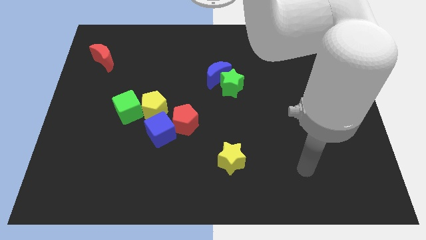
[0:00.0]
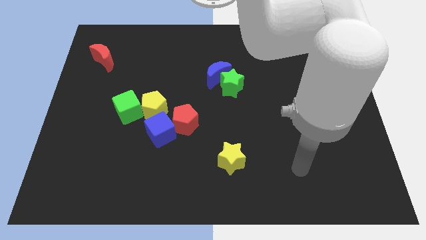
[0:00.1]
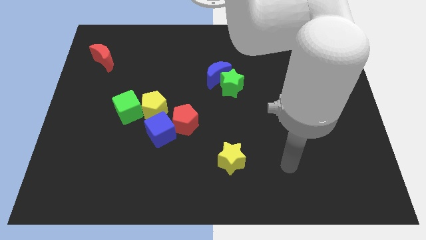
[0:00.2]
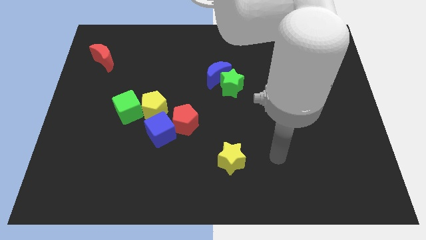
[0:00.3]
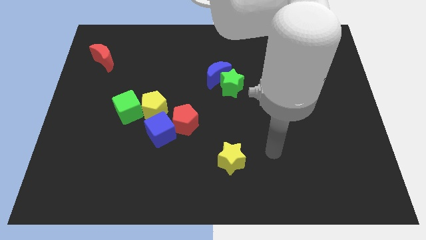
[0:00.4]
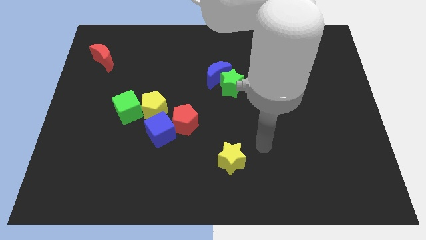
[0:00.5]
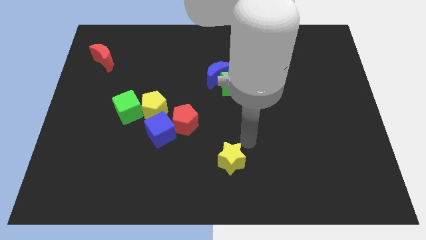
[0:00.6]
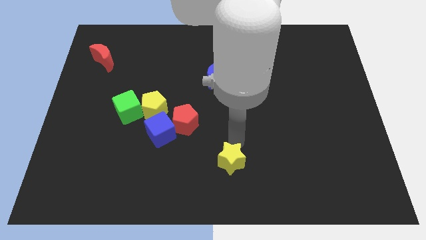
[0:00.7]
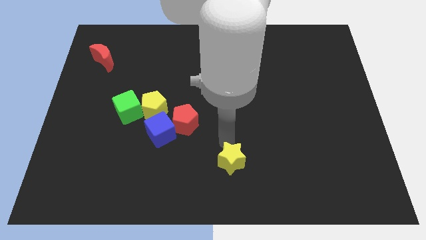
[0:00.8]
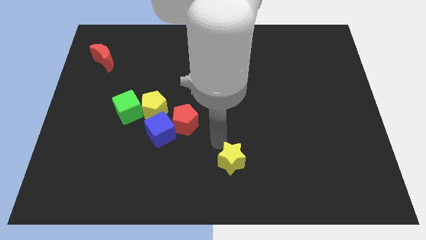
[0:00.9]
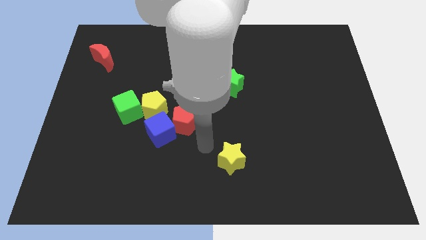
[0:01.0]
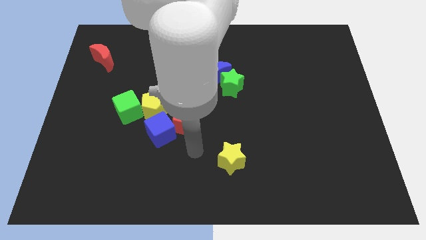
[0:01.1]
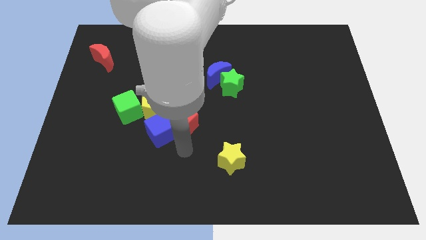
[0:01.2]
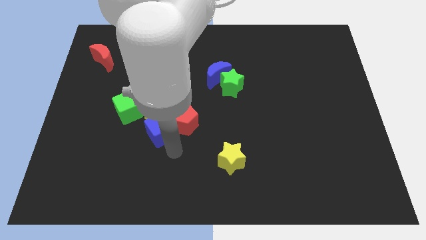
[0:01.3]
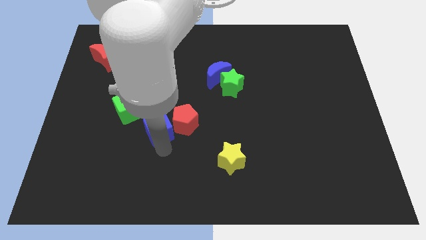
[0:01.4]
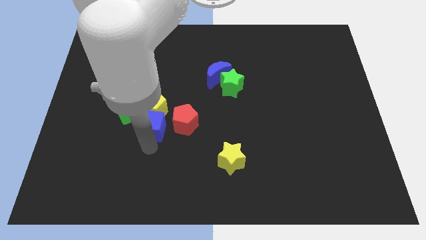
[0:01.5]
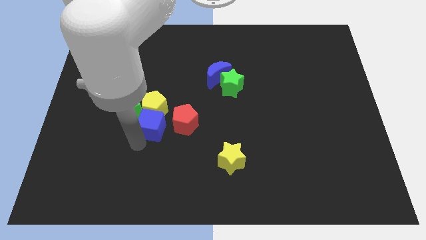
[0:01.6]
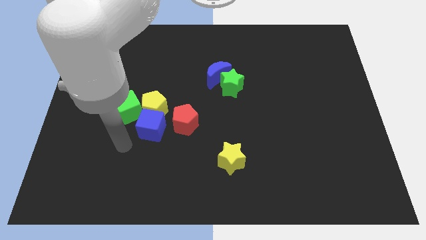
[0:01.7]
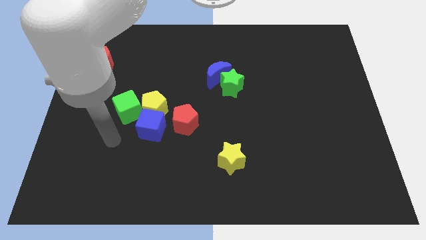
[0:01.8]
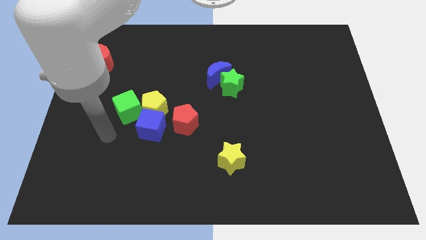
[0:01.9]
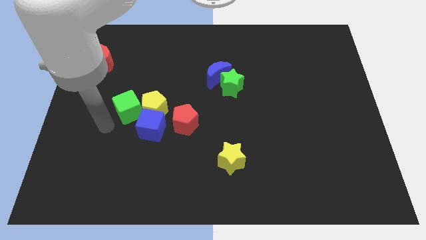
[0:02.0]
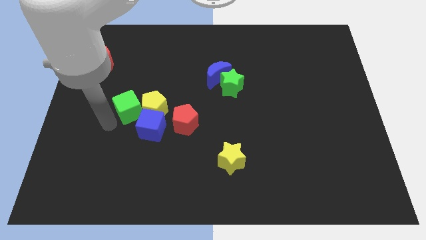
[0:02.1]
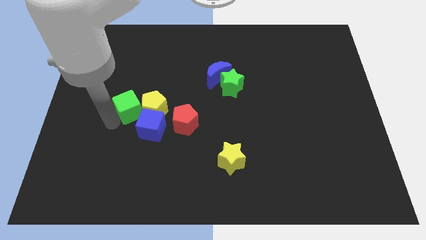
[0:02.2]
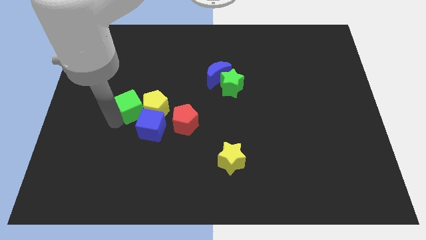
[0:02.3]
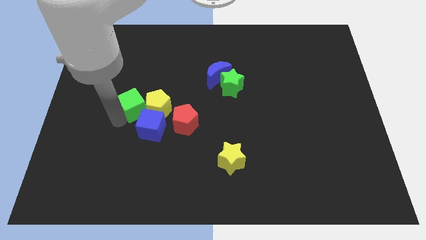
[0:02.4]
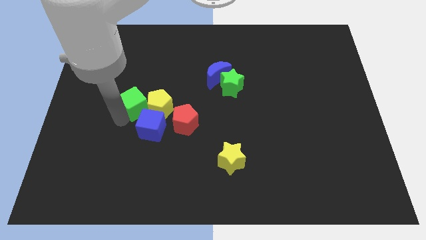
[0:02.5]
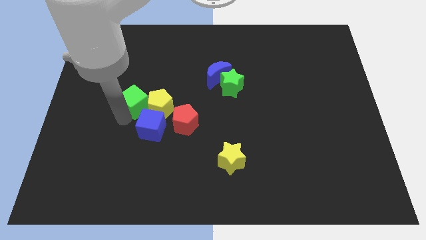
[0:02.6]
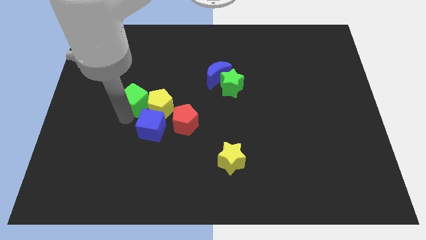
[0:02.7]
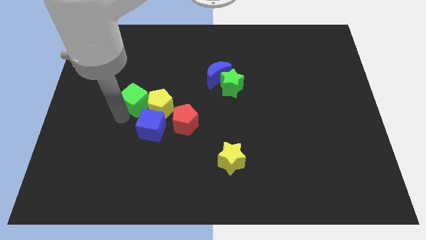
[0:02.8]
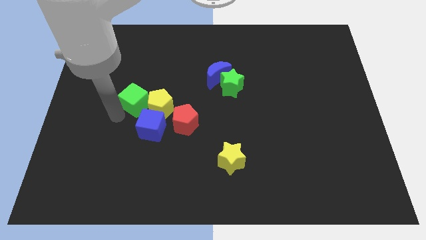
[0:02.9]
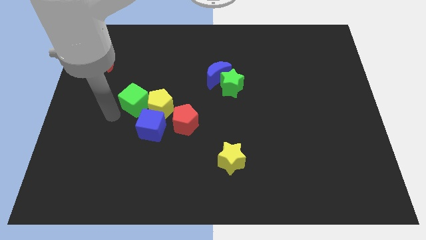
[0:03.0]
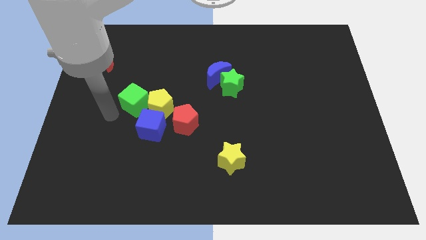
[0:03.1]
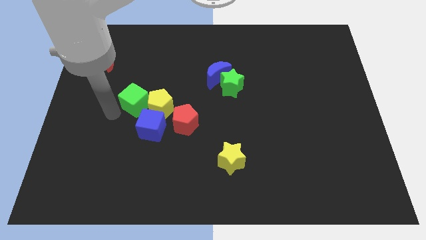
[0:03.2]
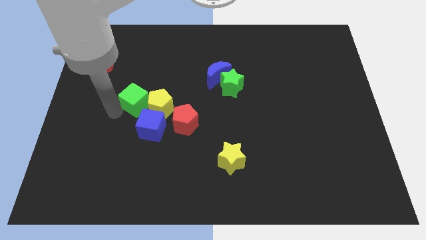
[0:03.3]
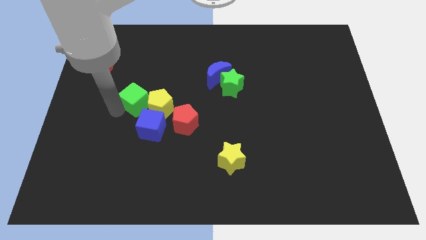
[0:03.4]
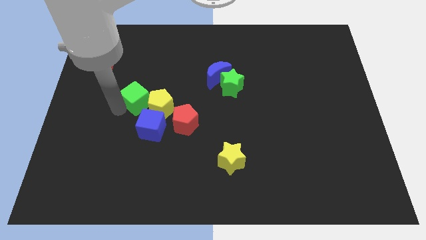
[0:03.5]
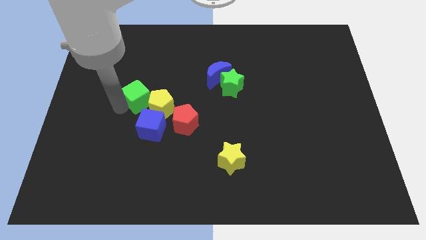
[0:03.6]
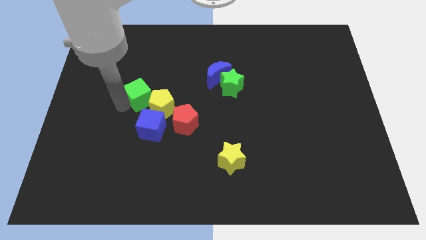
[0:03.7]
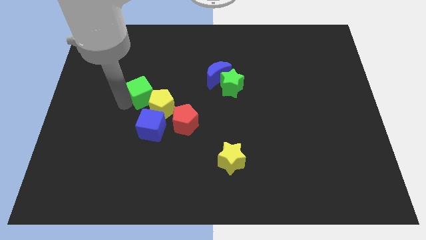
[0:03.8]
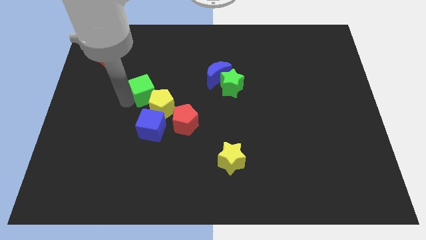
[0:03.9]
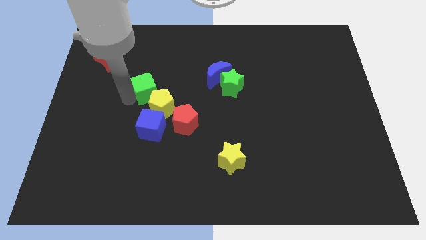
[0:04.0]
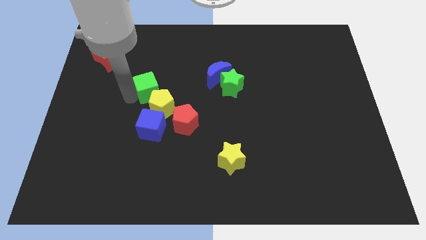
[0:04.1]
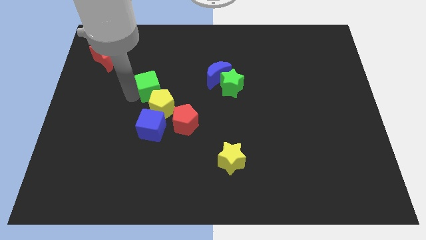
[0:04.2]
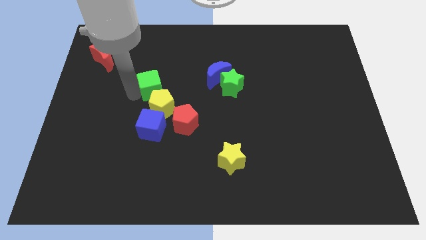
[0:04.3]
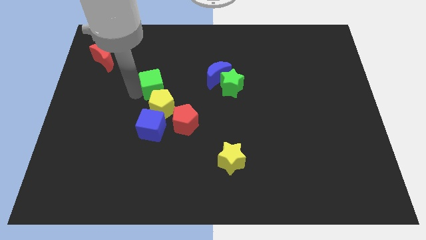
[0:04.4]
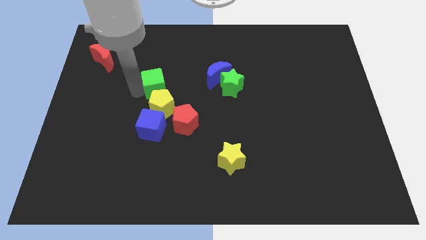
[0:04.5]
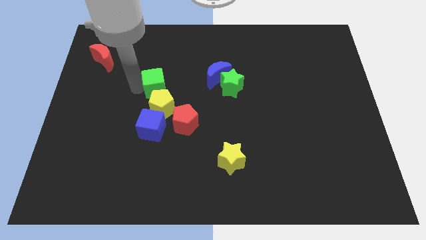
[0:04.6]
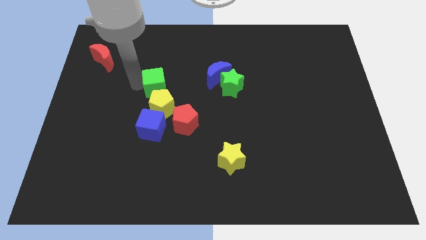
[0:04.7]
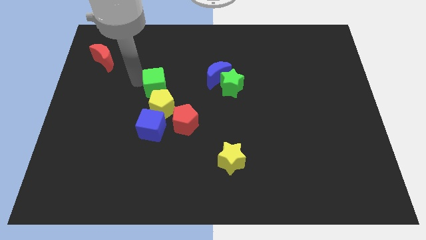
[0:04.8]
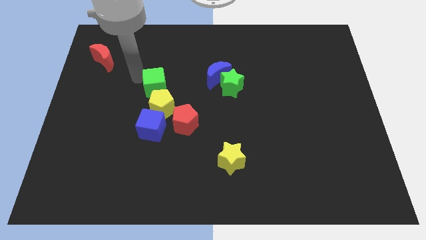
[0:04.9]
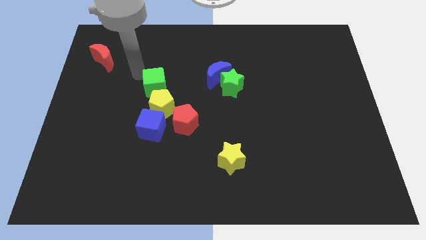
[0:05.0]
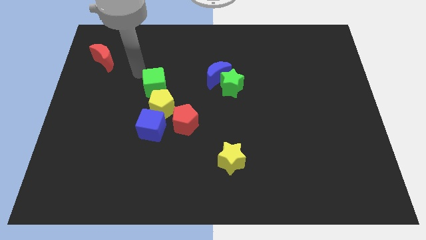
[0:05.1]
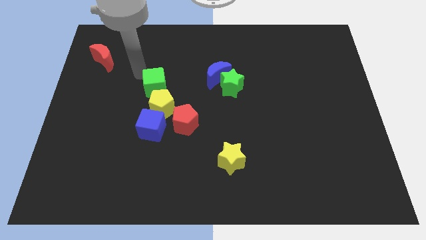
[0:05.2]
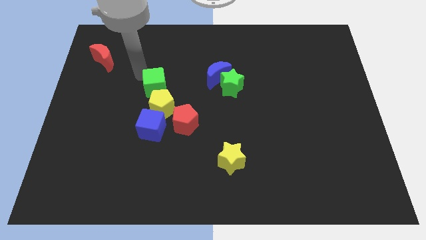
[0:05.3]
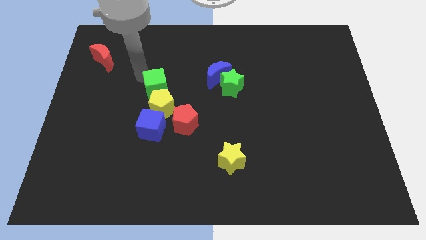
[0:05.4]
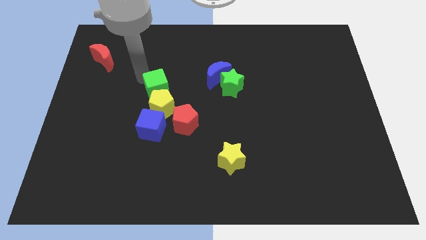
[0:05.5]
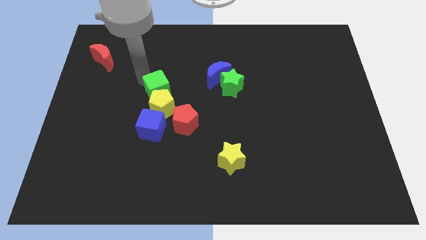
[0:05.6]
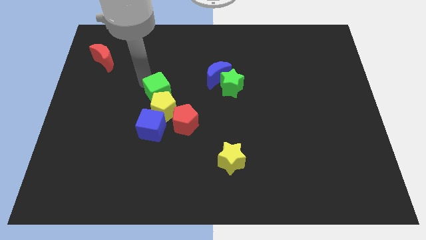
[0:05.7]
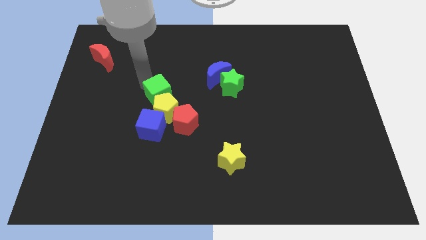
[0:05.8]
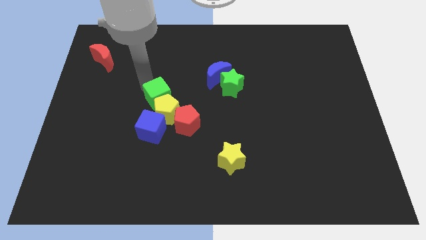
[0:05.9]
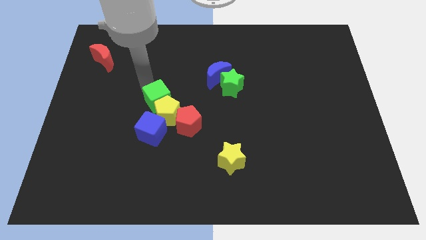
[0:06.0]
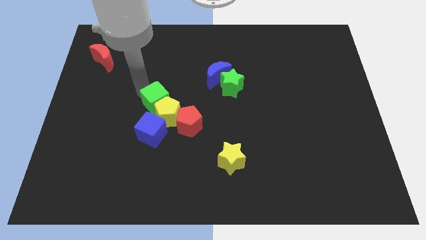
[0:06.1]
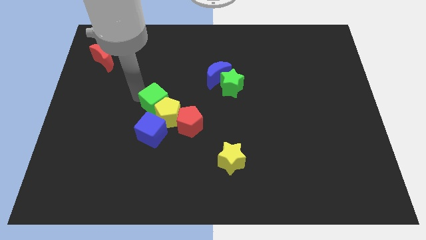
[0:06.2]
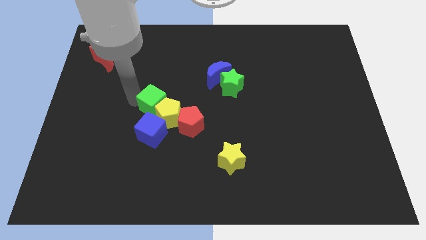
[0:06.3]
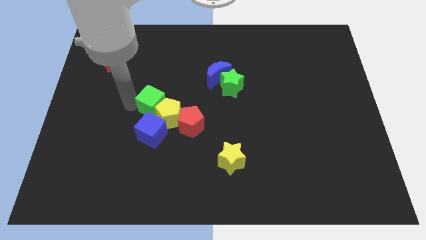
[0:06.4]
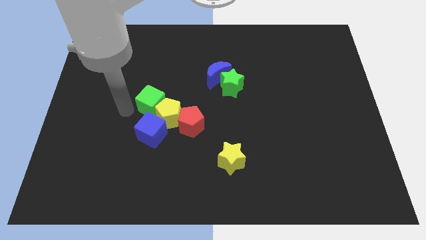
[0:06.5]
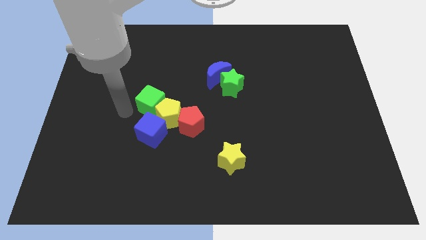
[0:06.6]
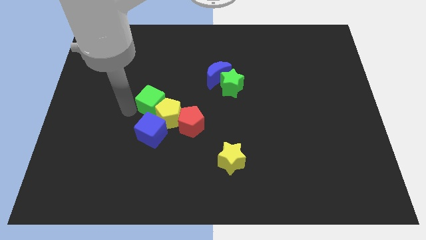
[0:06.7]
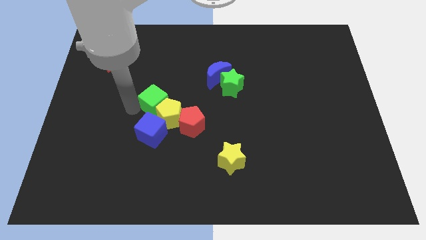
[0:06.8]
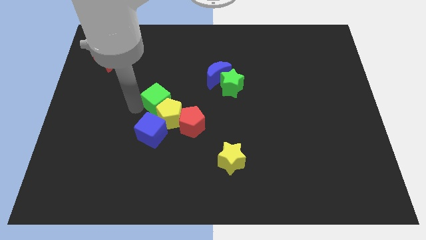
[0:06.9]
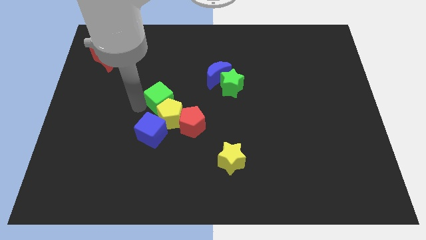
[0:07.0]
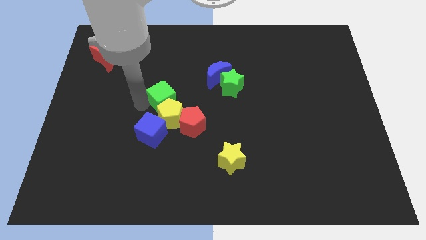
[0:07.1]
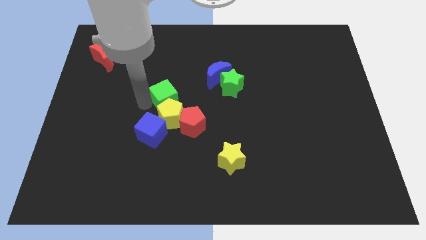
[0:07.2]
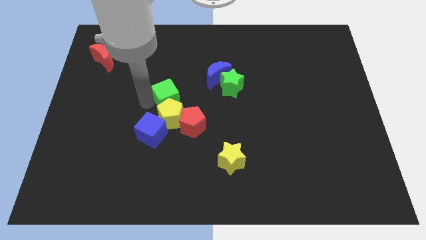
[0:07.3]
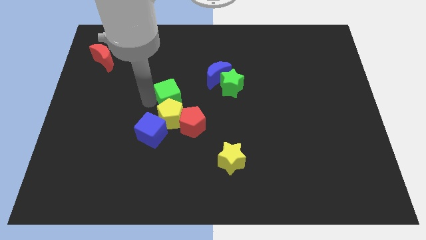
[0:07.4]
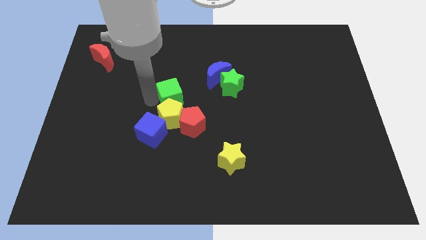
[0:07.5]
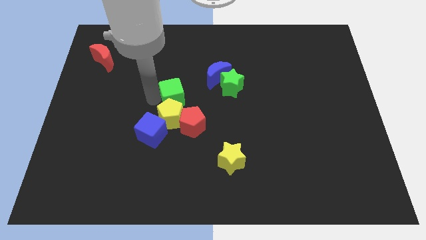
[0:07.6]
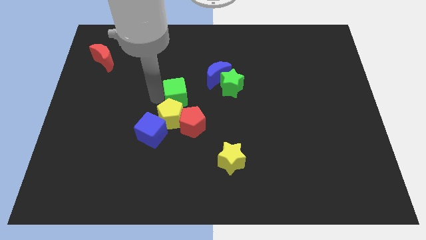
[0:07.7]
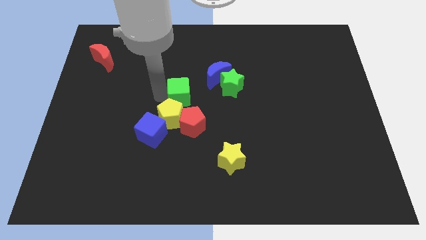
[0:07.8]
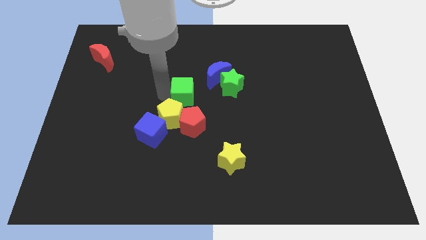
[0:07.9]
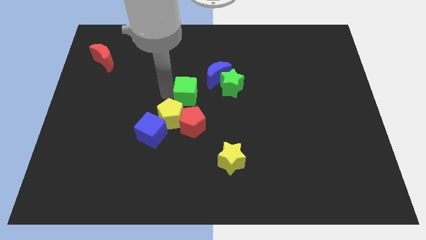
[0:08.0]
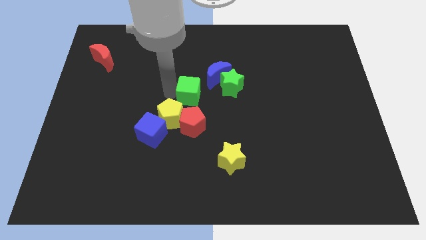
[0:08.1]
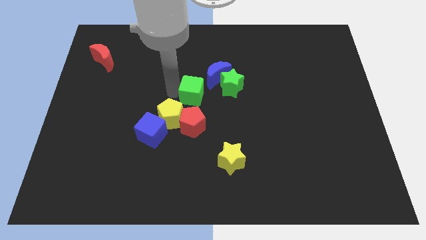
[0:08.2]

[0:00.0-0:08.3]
push the green cube diagonally down and to the left of the green star
